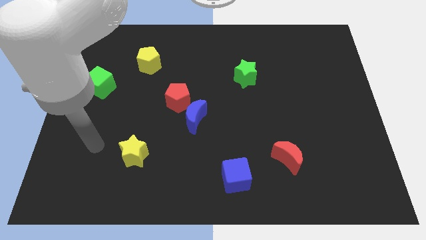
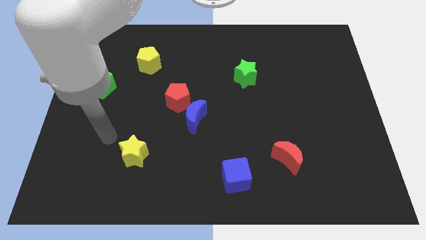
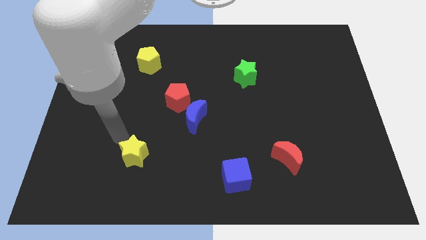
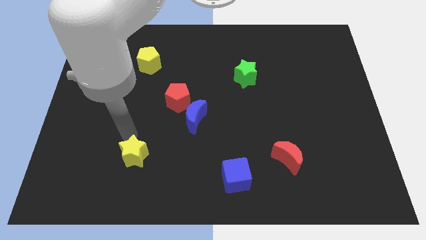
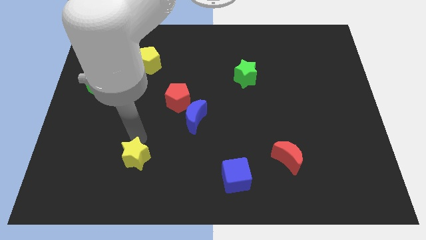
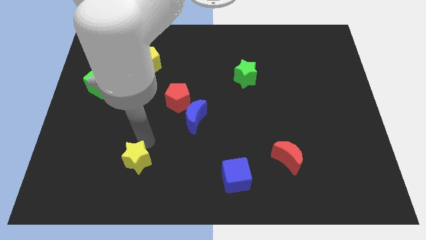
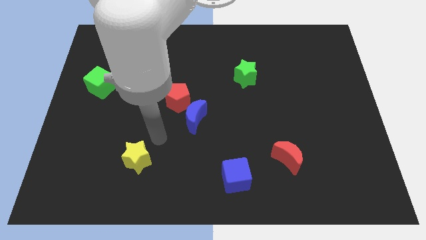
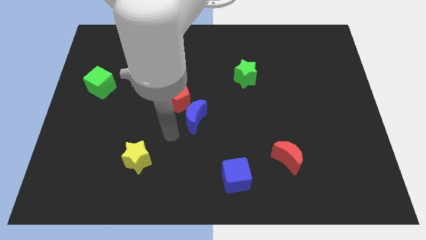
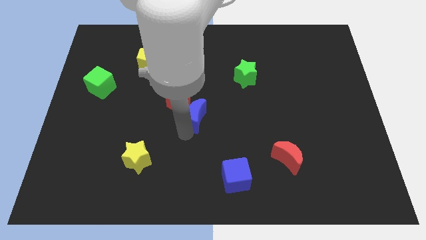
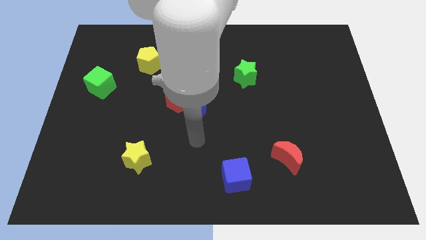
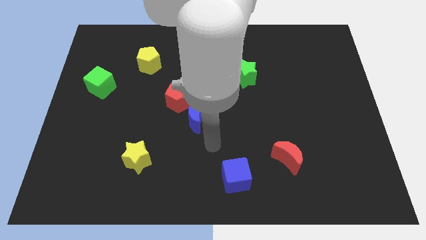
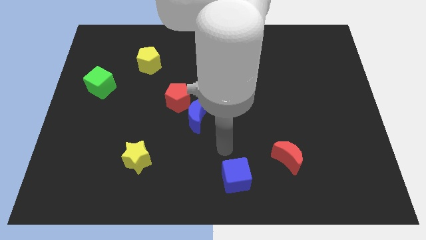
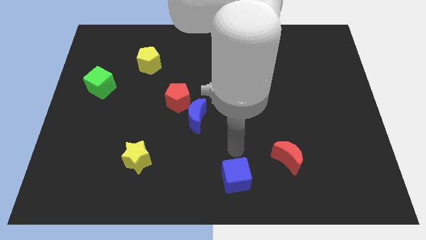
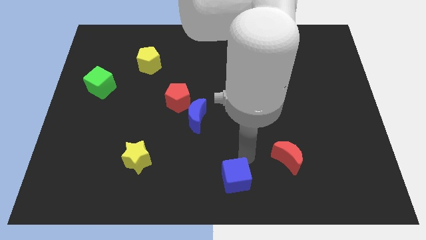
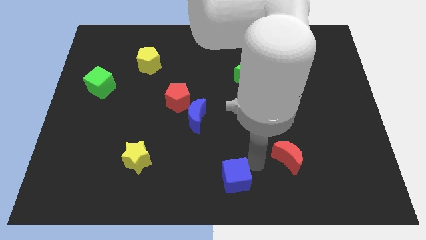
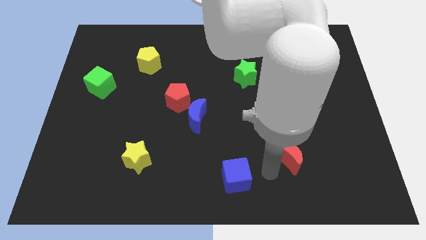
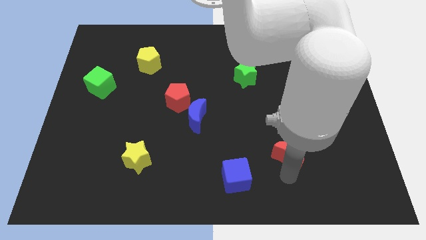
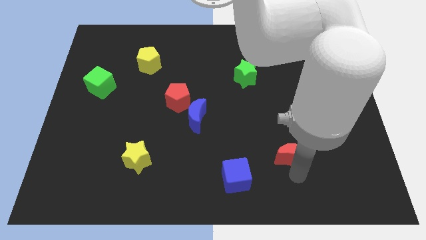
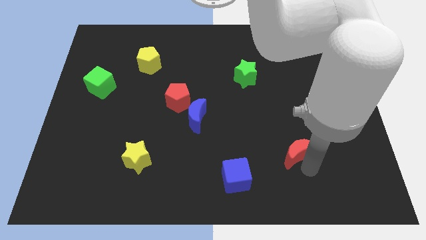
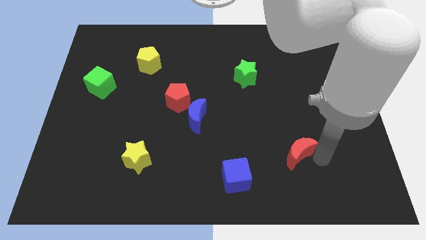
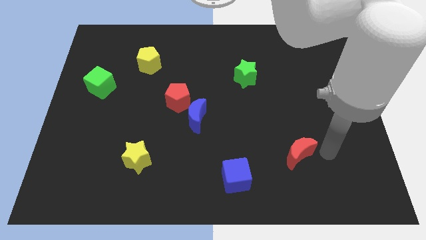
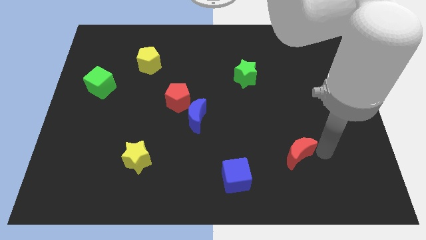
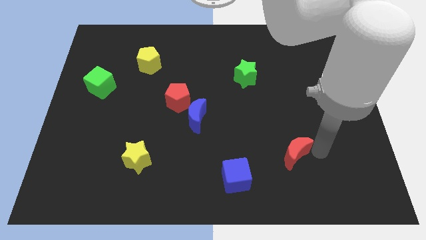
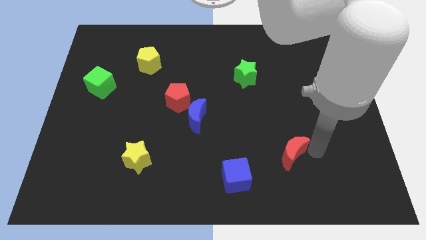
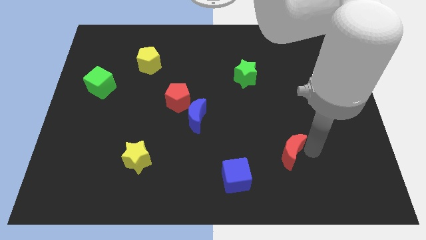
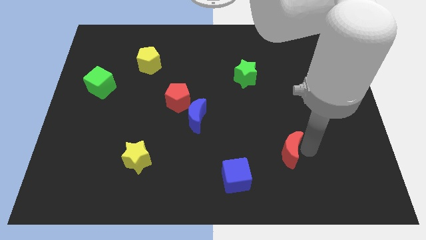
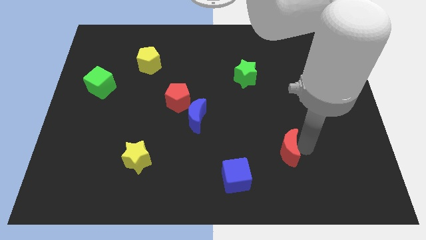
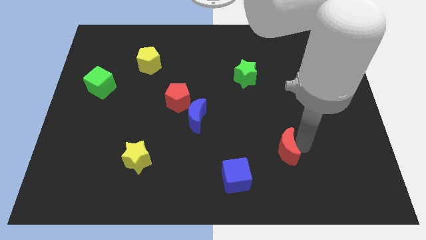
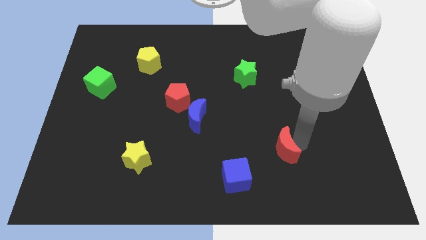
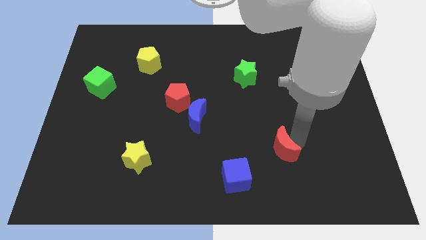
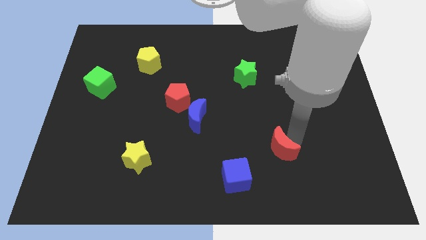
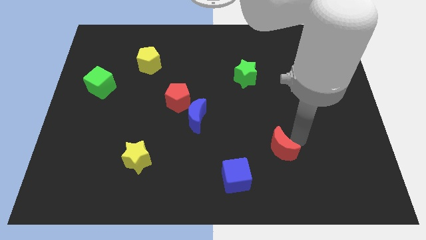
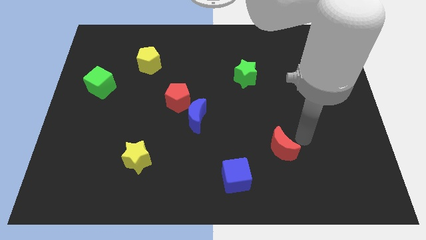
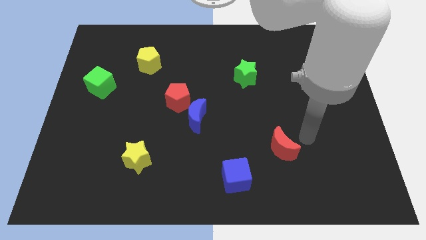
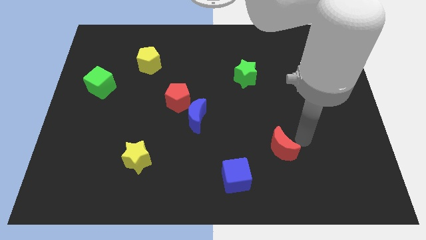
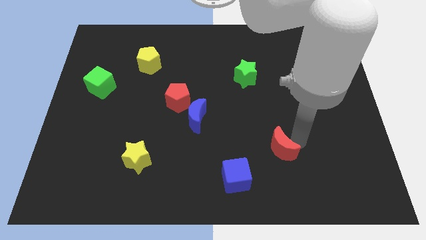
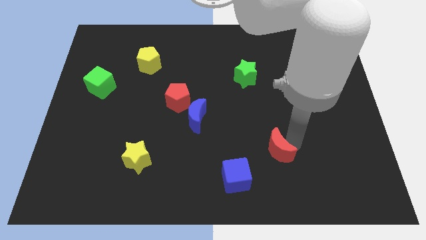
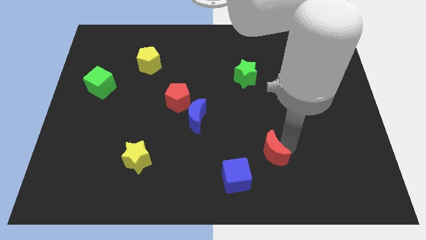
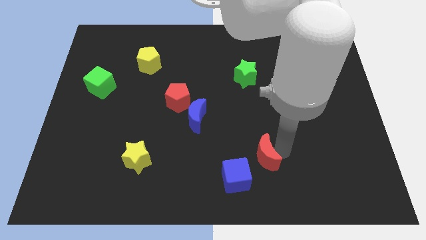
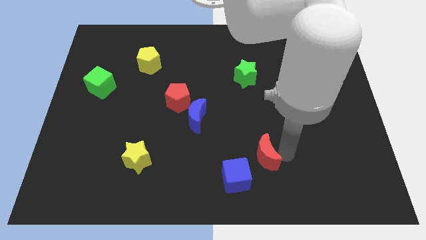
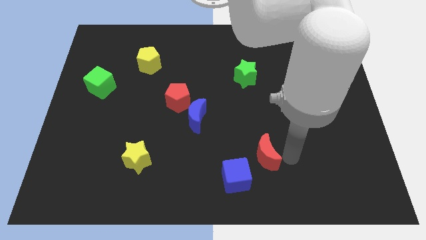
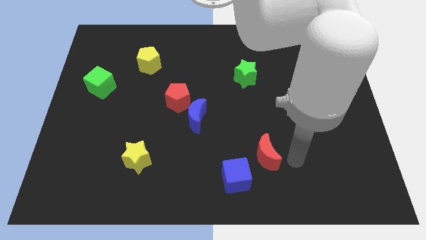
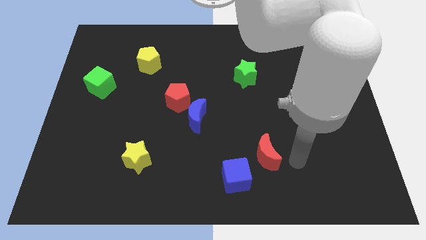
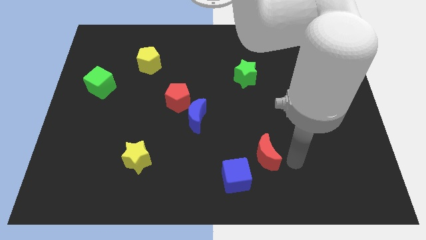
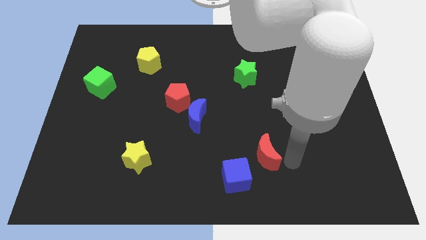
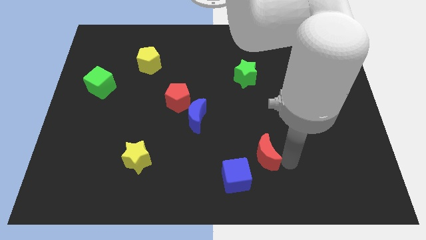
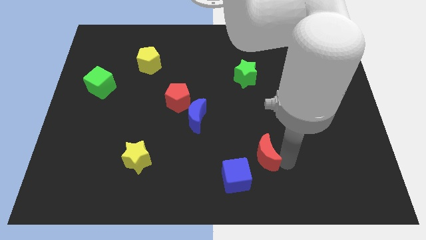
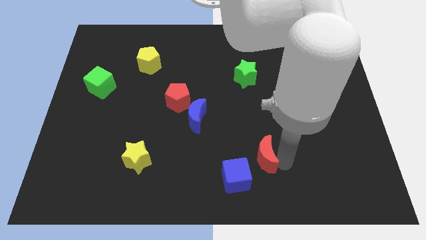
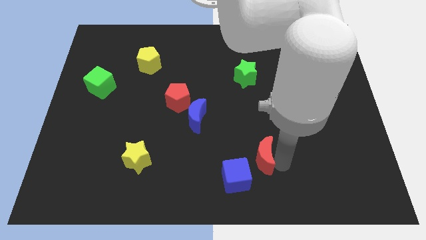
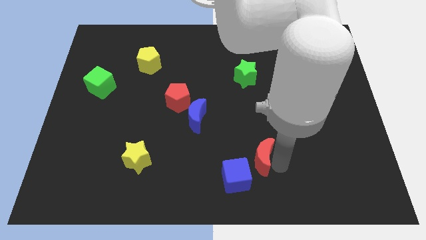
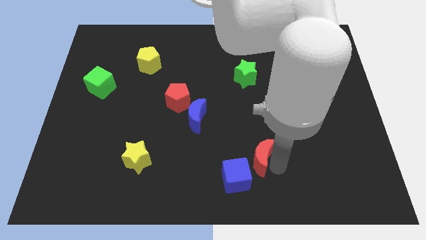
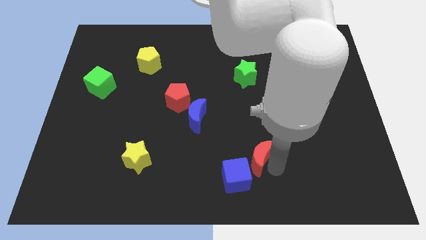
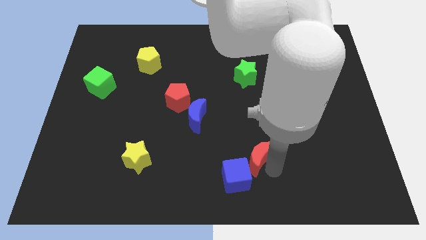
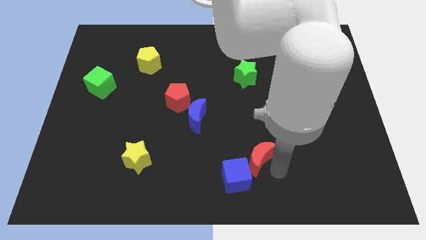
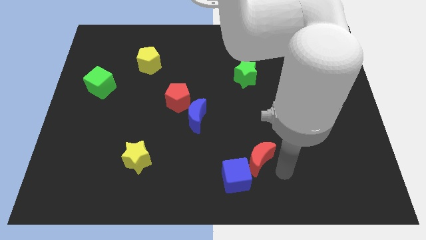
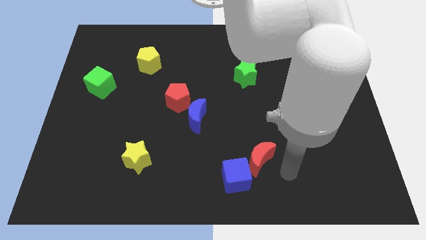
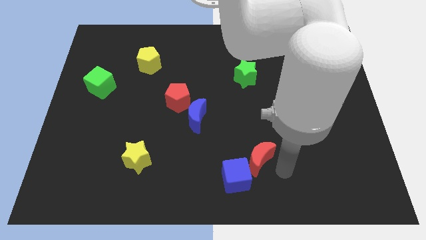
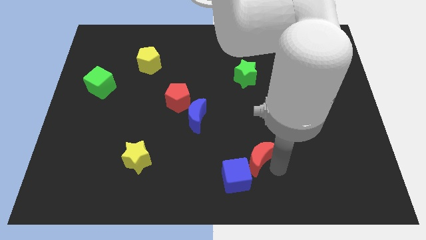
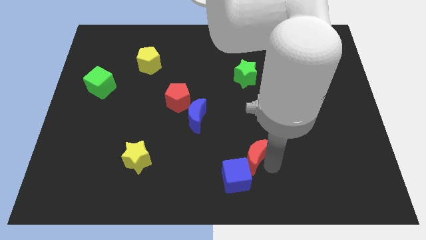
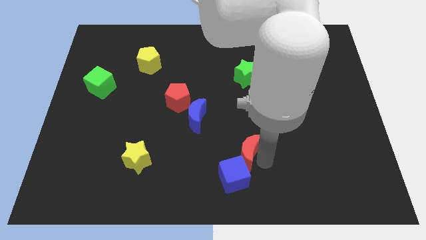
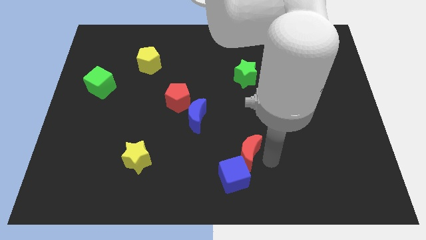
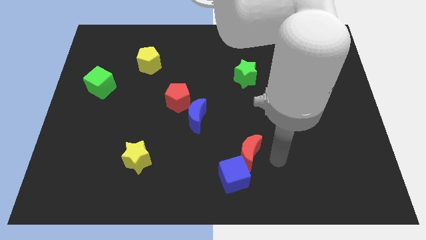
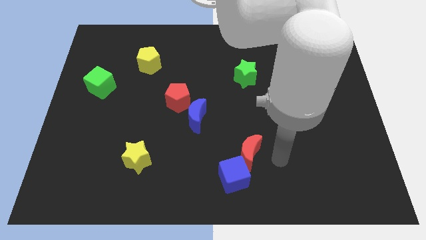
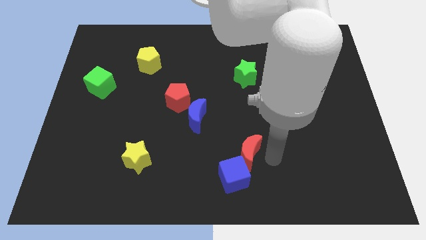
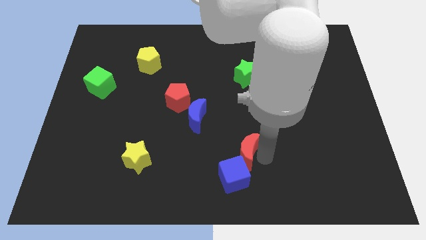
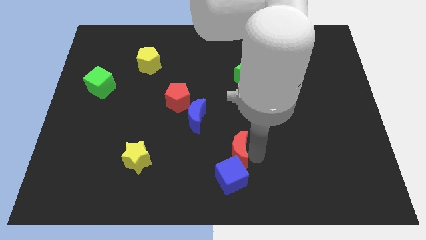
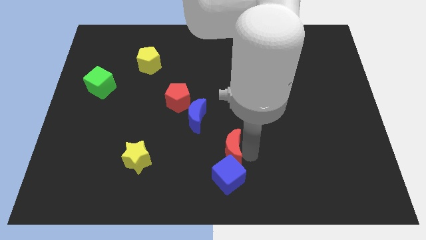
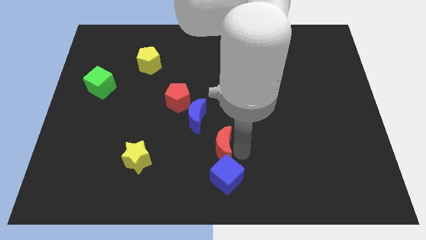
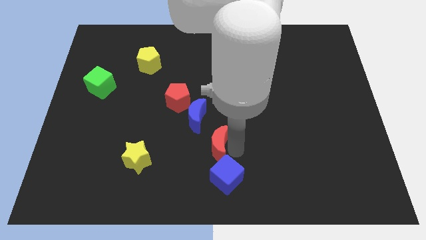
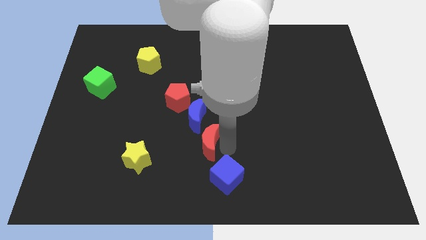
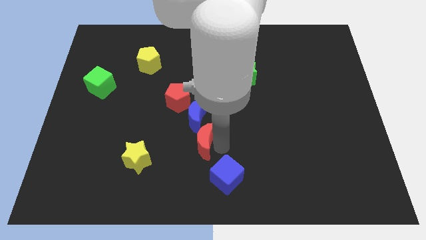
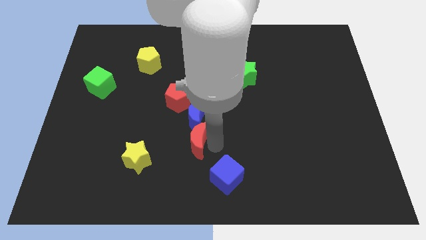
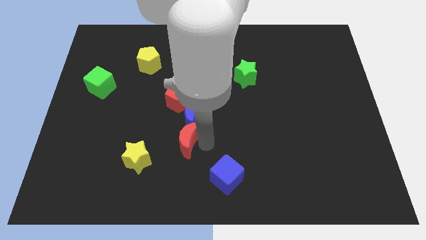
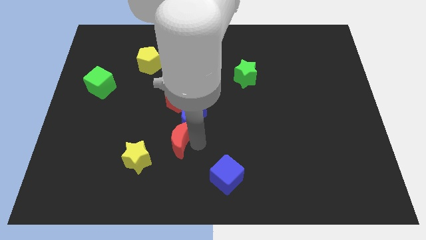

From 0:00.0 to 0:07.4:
move the red moon to the top right of the yellow star
